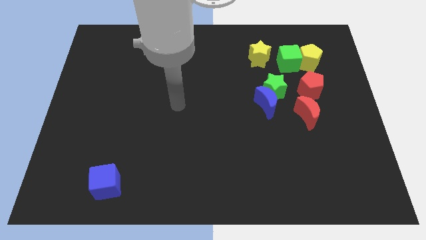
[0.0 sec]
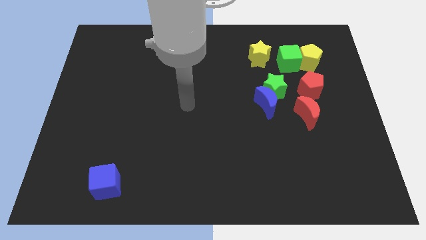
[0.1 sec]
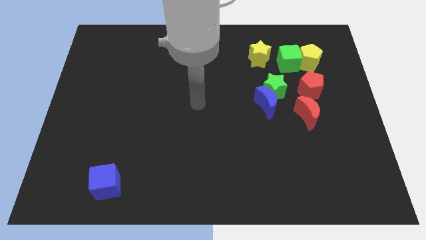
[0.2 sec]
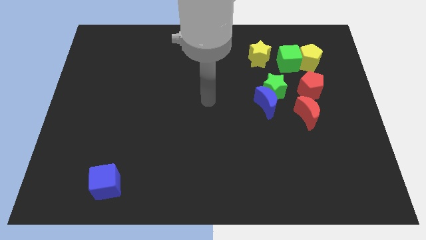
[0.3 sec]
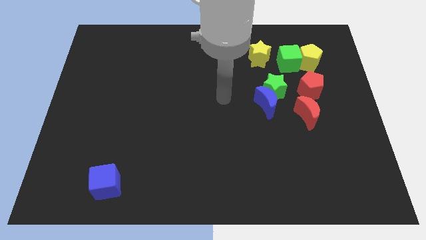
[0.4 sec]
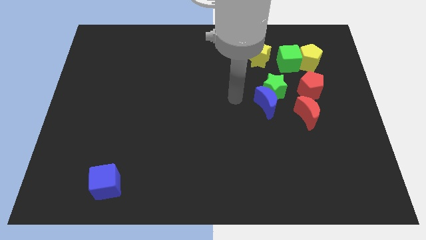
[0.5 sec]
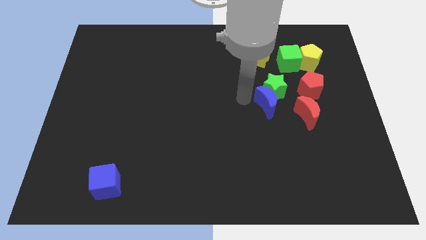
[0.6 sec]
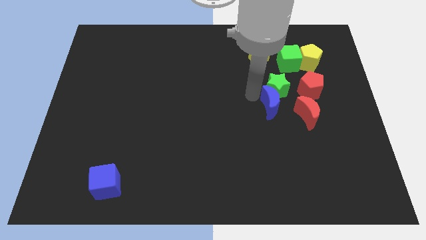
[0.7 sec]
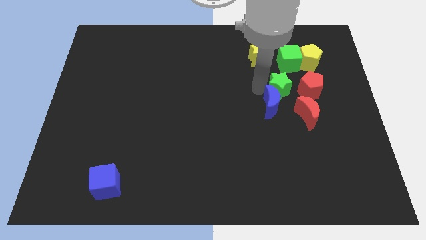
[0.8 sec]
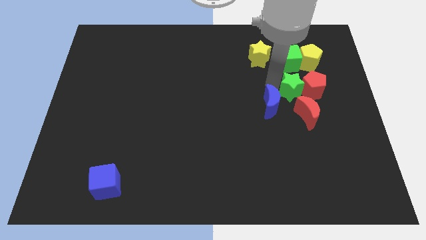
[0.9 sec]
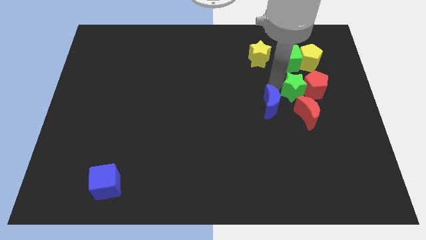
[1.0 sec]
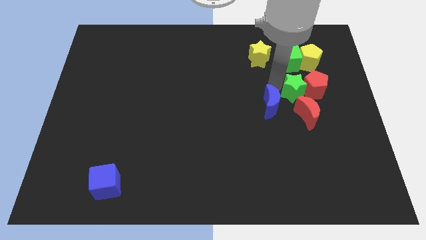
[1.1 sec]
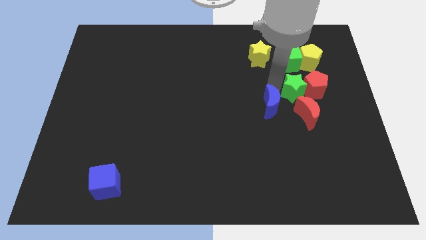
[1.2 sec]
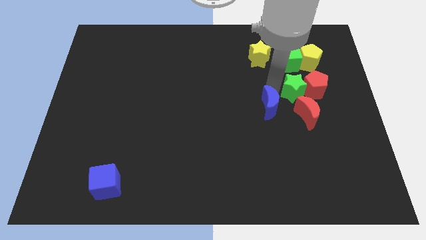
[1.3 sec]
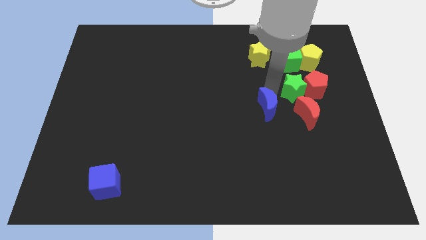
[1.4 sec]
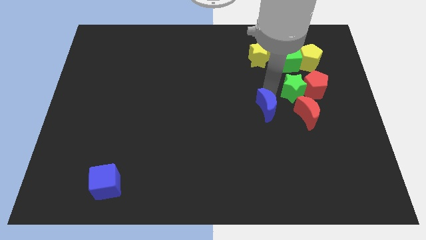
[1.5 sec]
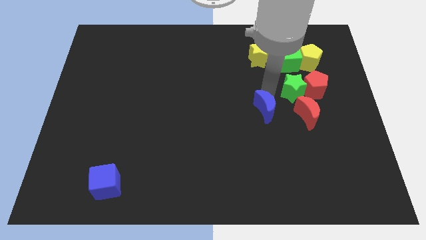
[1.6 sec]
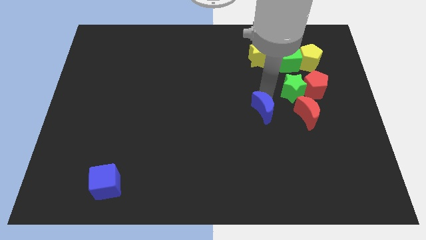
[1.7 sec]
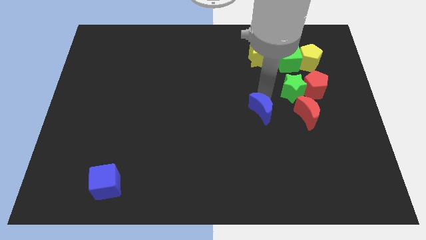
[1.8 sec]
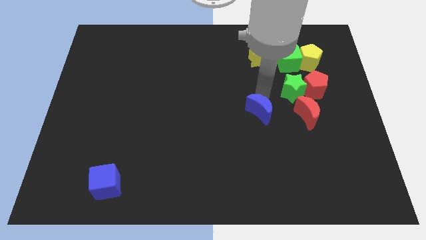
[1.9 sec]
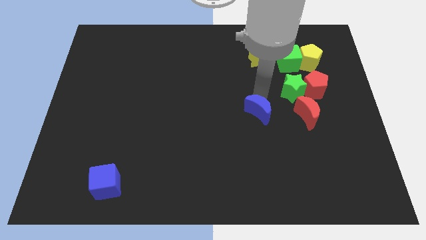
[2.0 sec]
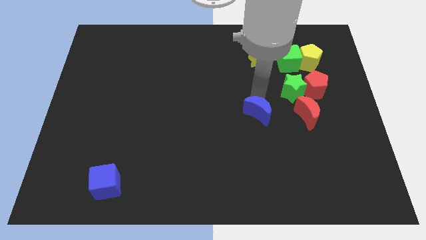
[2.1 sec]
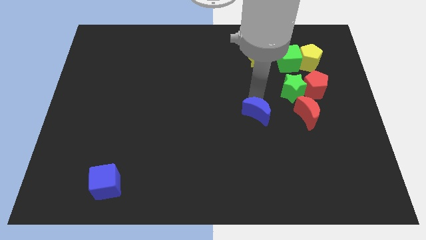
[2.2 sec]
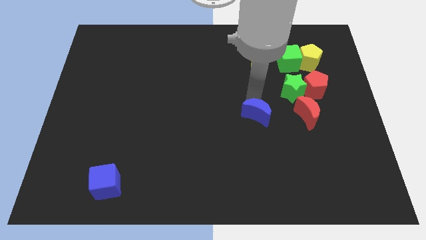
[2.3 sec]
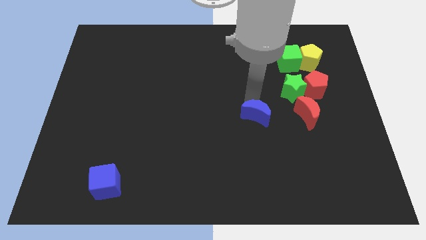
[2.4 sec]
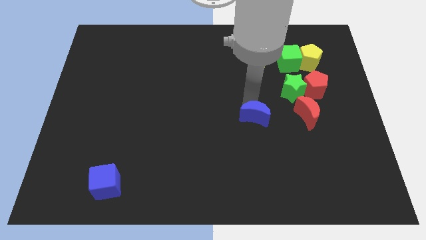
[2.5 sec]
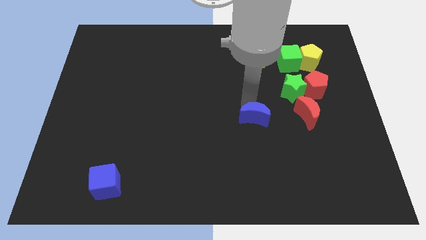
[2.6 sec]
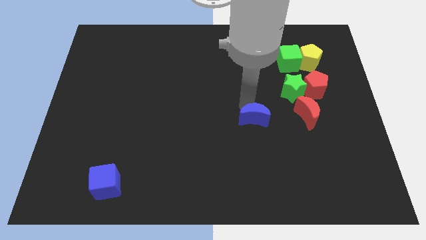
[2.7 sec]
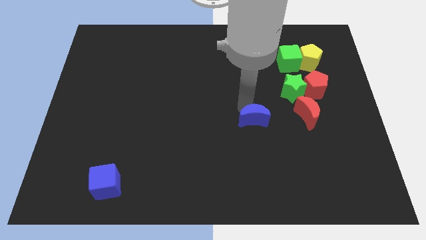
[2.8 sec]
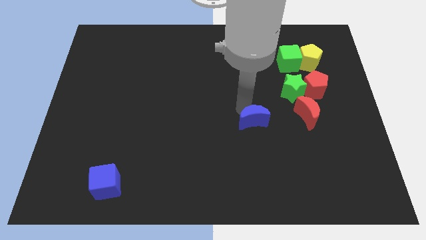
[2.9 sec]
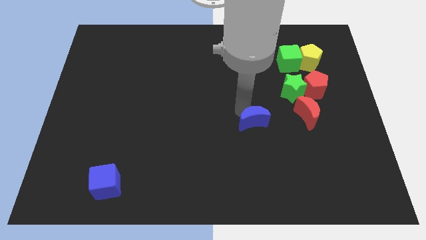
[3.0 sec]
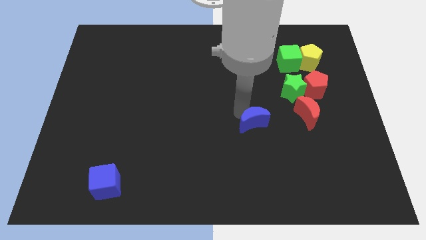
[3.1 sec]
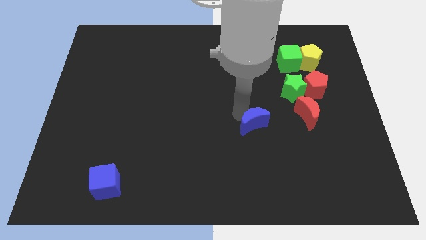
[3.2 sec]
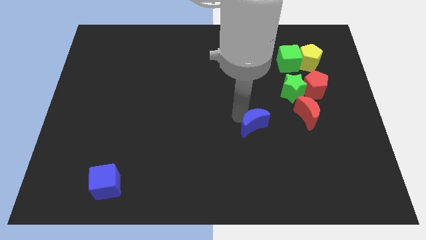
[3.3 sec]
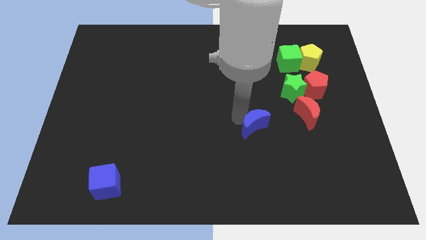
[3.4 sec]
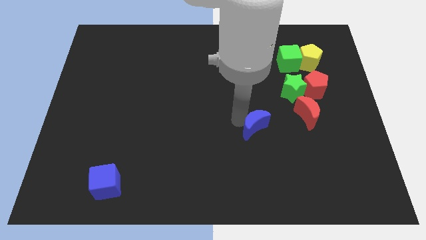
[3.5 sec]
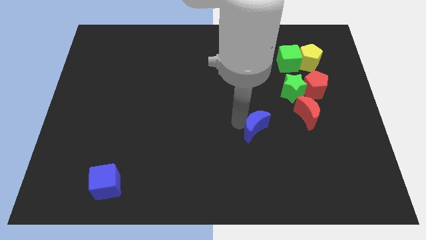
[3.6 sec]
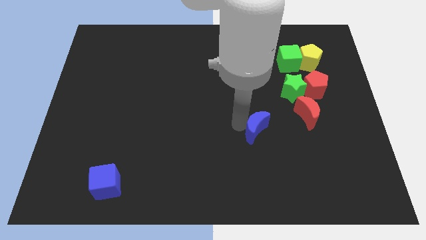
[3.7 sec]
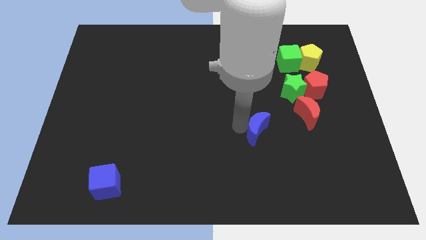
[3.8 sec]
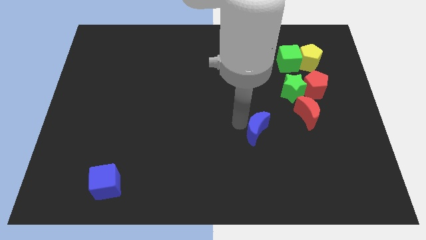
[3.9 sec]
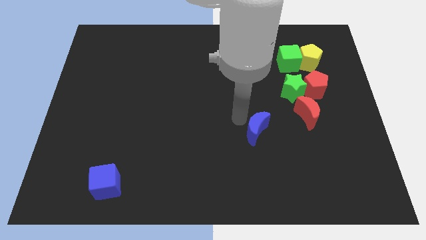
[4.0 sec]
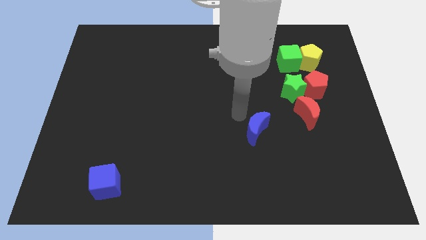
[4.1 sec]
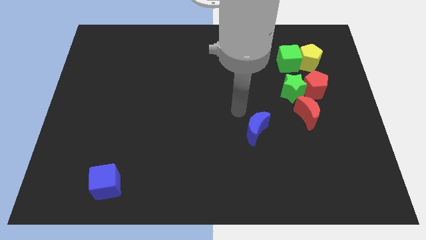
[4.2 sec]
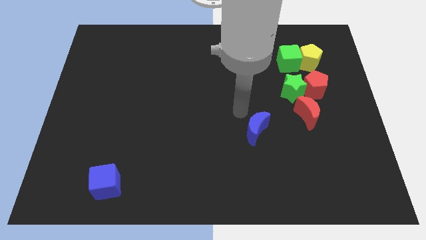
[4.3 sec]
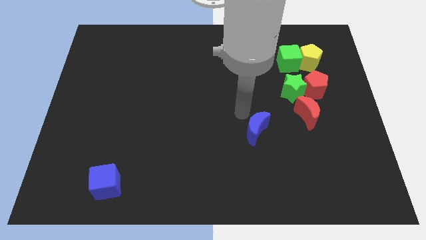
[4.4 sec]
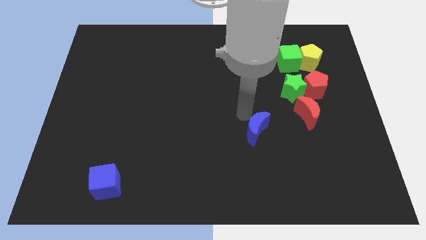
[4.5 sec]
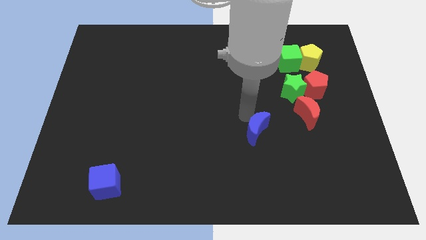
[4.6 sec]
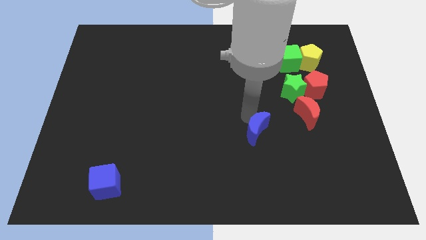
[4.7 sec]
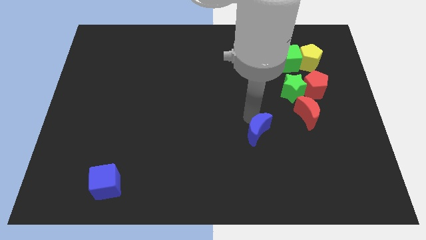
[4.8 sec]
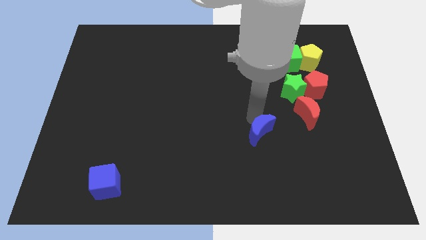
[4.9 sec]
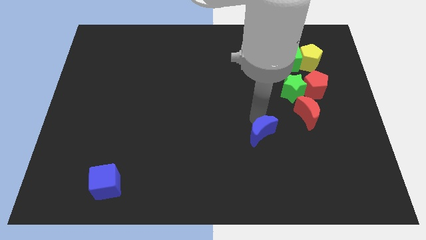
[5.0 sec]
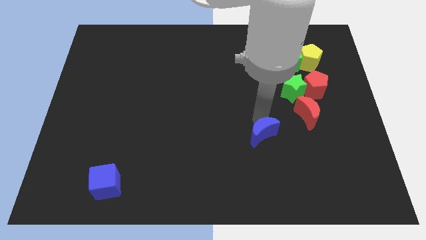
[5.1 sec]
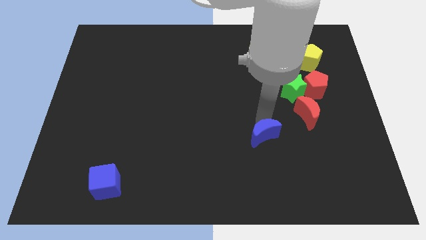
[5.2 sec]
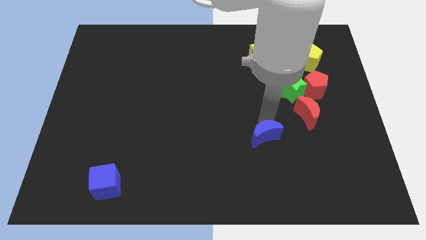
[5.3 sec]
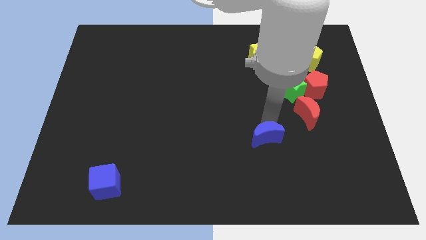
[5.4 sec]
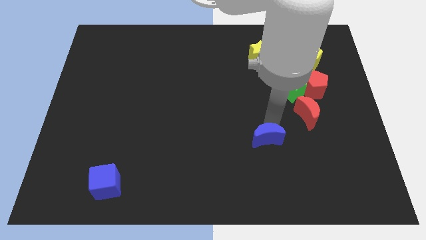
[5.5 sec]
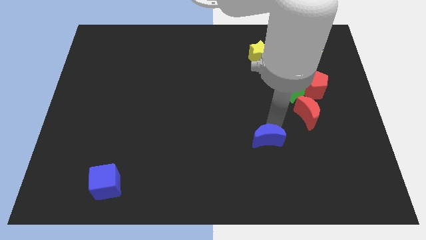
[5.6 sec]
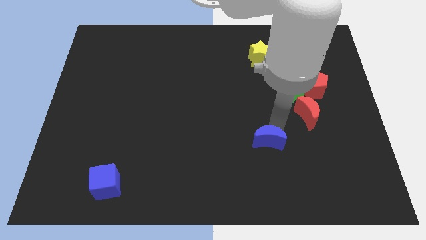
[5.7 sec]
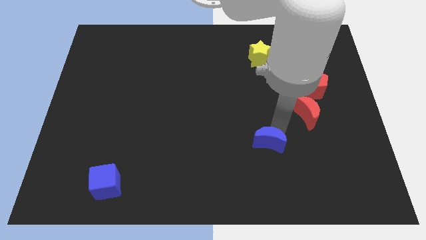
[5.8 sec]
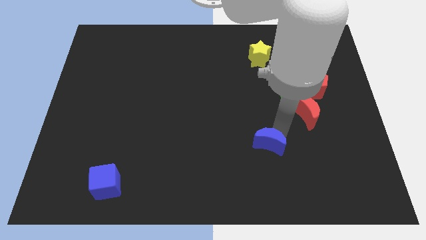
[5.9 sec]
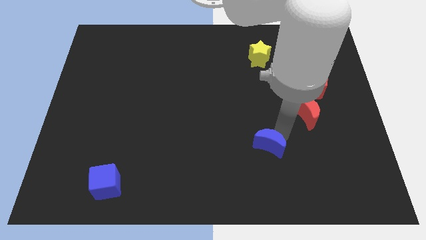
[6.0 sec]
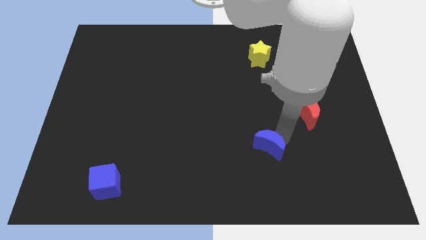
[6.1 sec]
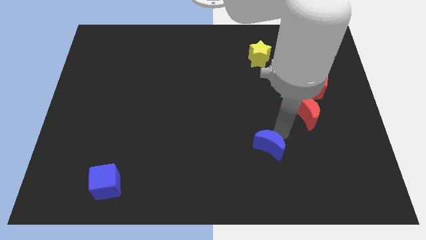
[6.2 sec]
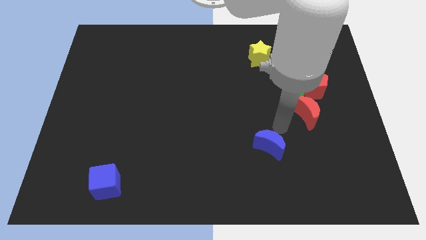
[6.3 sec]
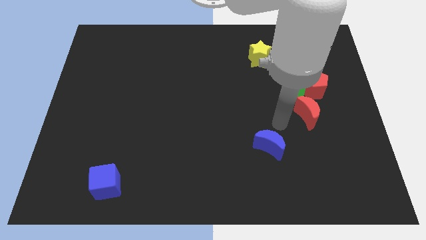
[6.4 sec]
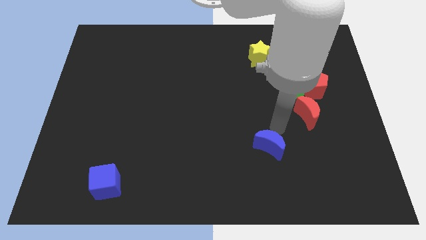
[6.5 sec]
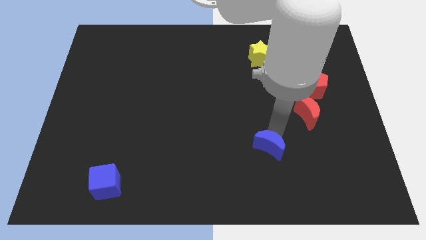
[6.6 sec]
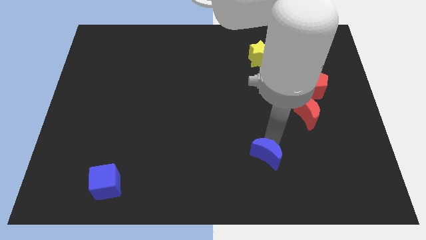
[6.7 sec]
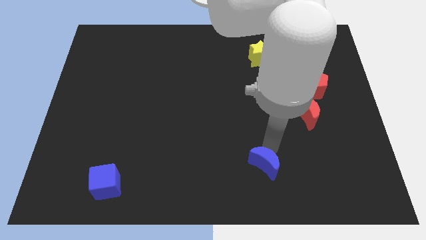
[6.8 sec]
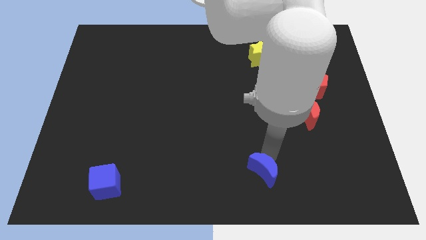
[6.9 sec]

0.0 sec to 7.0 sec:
move the blue moon to the bottom

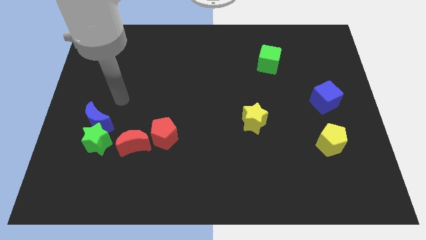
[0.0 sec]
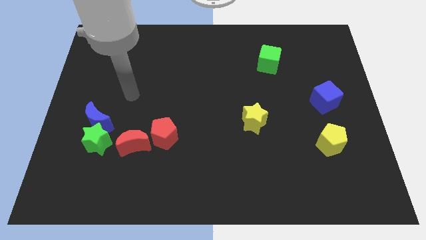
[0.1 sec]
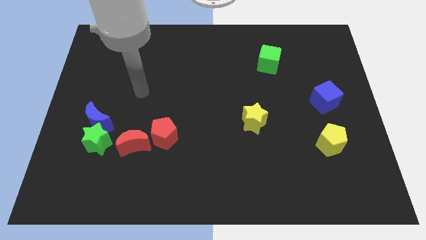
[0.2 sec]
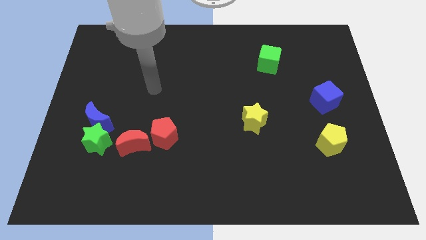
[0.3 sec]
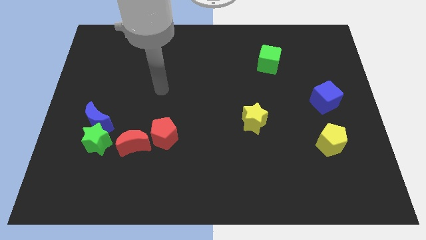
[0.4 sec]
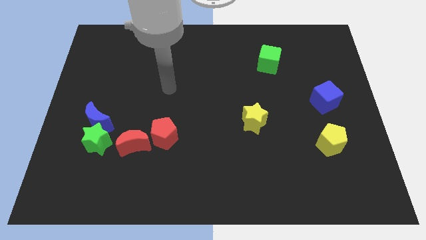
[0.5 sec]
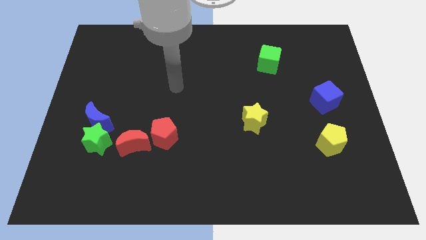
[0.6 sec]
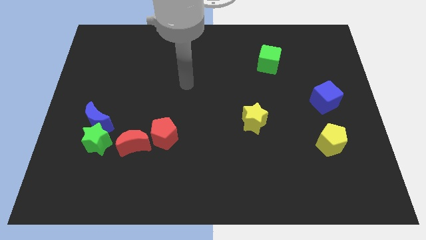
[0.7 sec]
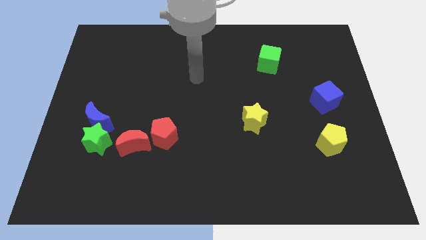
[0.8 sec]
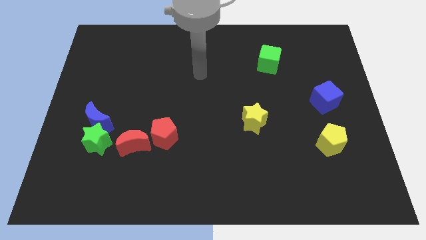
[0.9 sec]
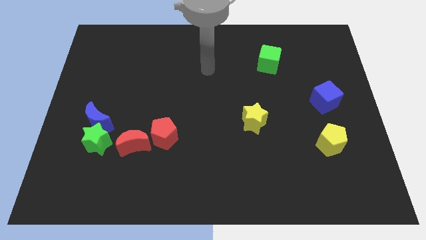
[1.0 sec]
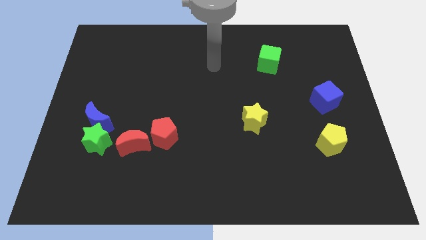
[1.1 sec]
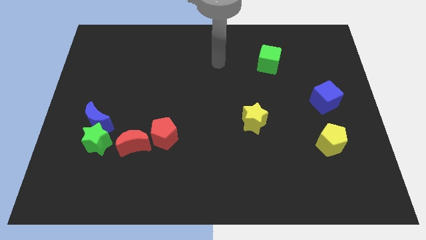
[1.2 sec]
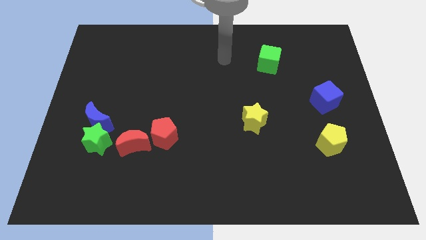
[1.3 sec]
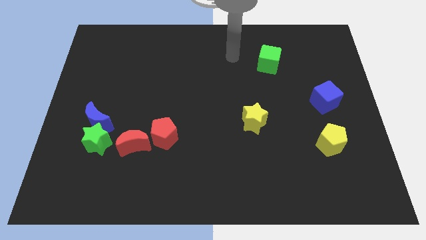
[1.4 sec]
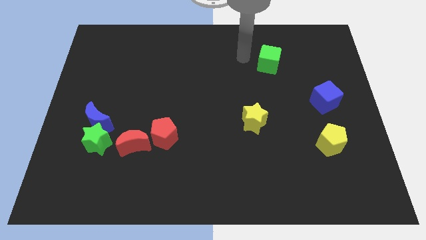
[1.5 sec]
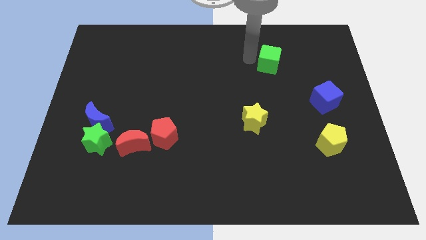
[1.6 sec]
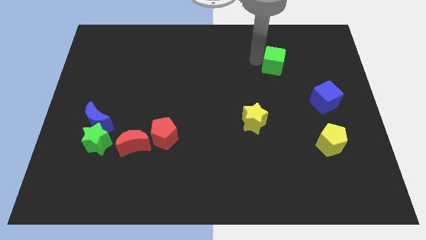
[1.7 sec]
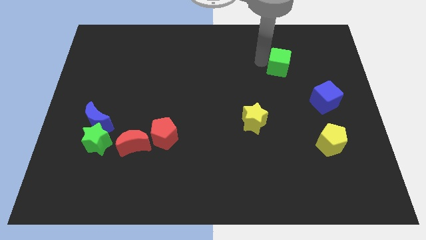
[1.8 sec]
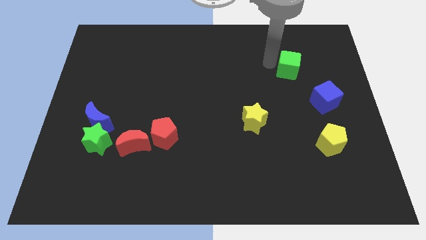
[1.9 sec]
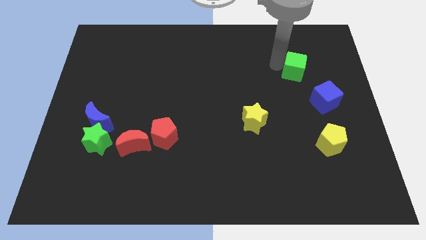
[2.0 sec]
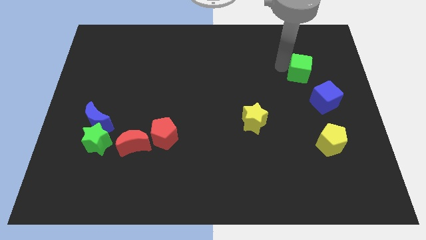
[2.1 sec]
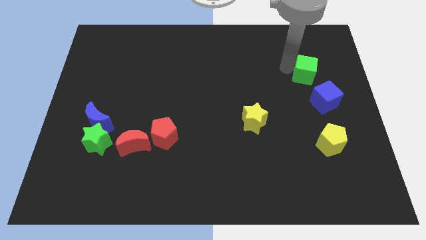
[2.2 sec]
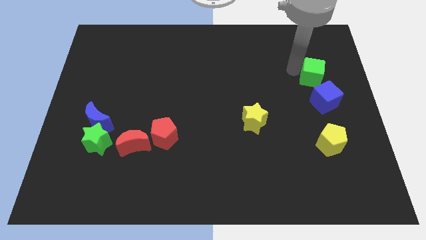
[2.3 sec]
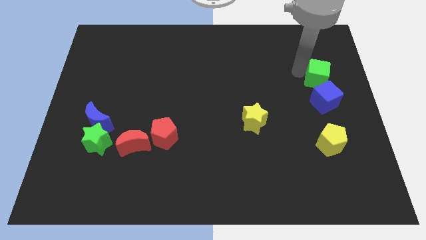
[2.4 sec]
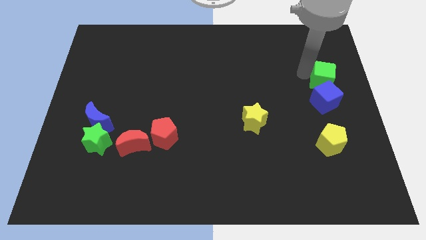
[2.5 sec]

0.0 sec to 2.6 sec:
push the green cube to the right side of the board
